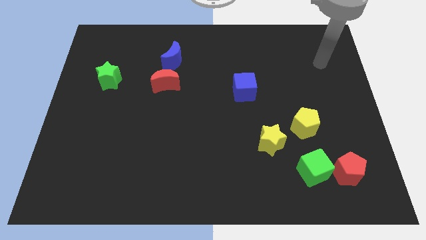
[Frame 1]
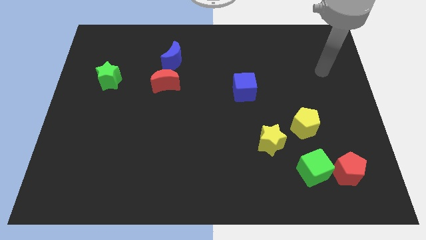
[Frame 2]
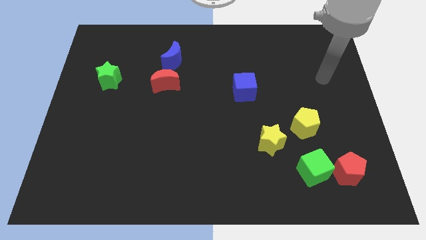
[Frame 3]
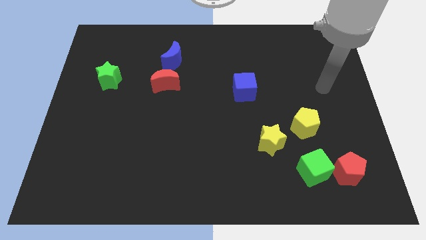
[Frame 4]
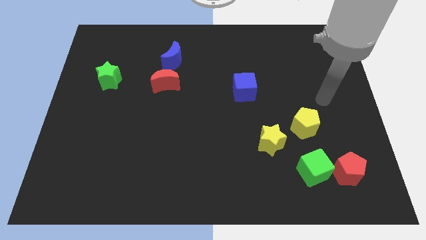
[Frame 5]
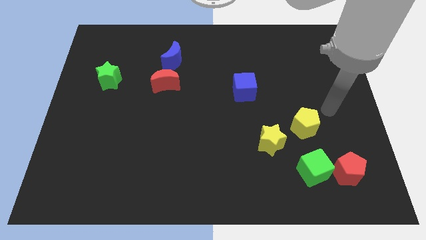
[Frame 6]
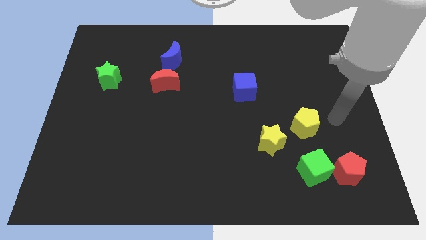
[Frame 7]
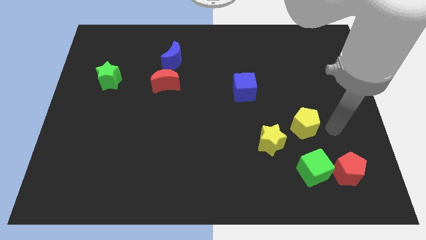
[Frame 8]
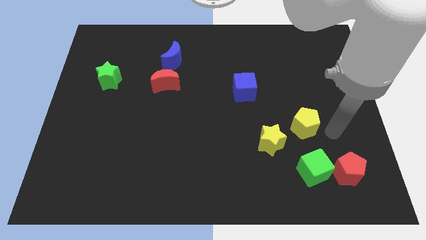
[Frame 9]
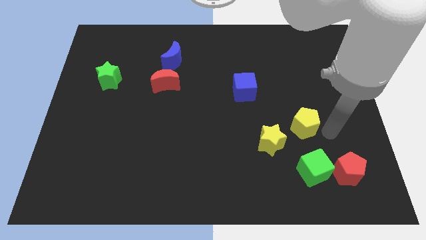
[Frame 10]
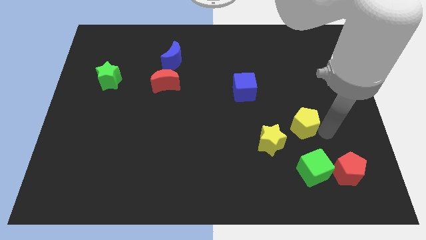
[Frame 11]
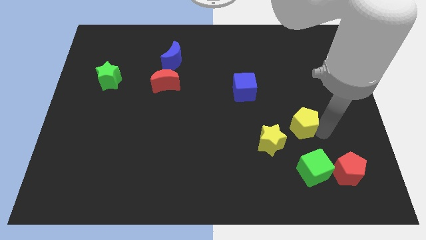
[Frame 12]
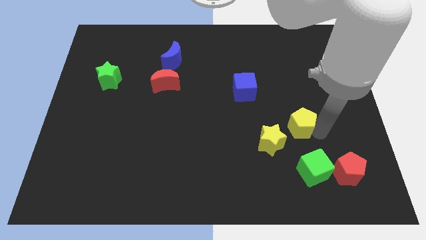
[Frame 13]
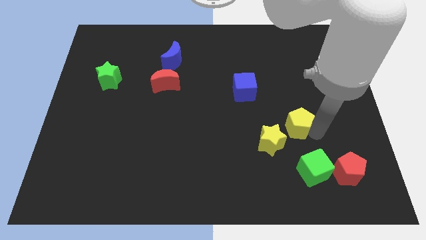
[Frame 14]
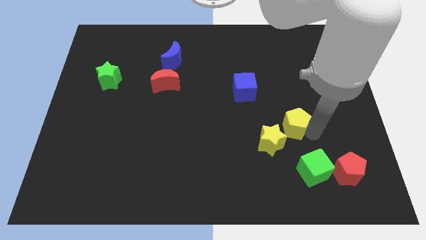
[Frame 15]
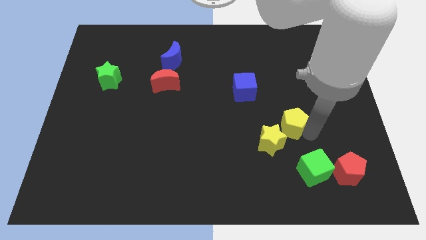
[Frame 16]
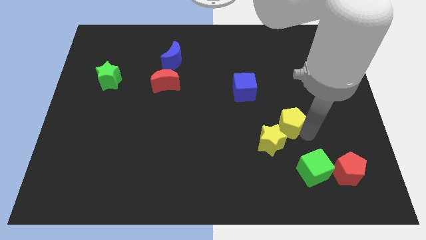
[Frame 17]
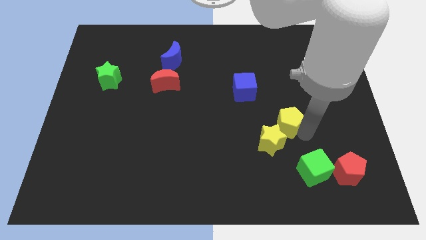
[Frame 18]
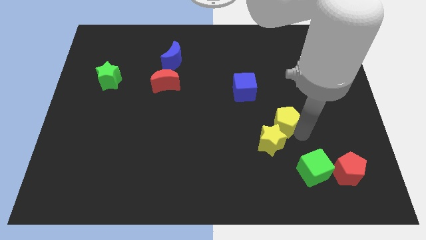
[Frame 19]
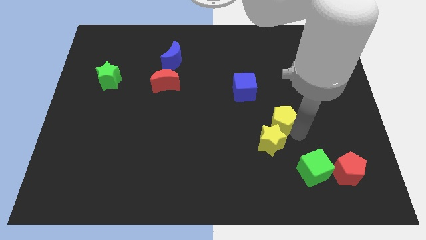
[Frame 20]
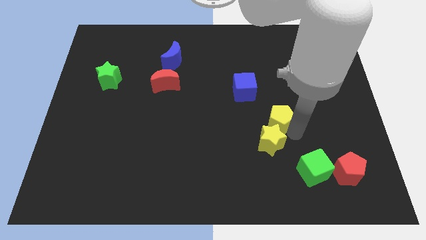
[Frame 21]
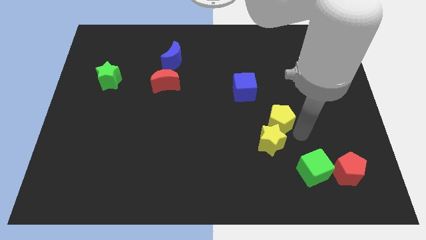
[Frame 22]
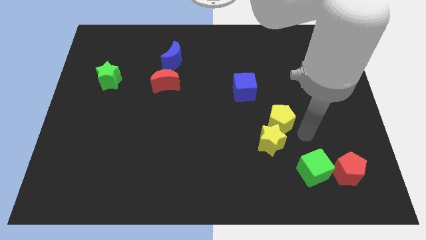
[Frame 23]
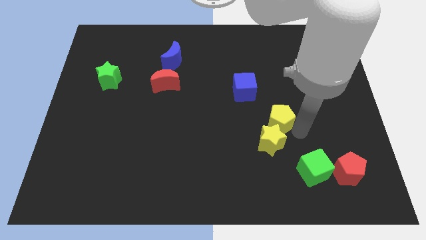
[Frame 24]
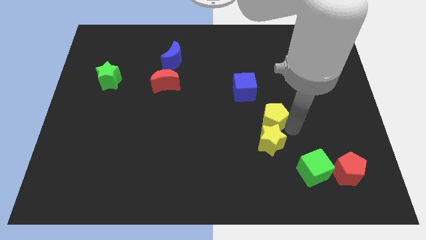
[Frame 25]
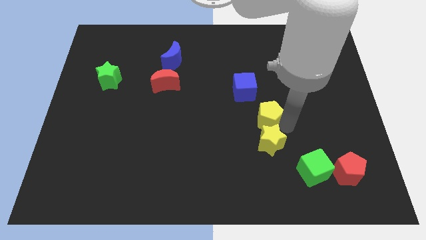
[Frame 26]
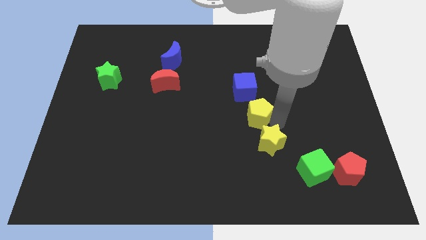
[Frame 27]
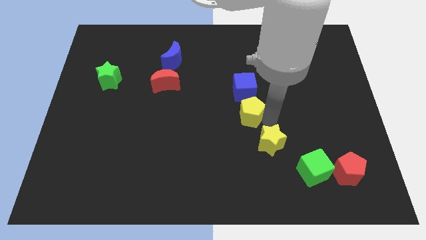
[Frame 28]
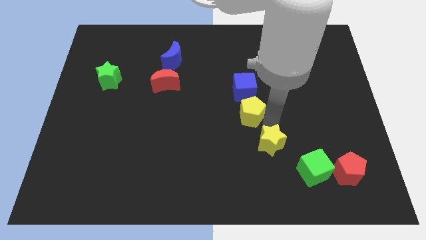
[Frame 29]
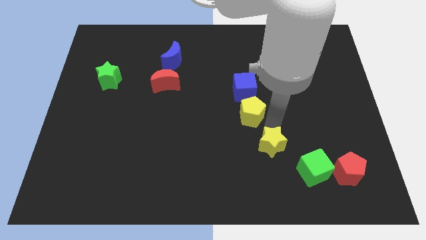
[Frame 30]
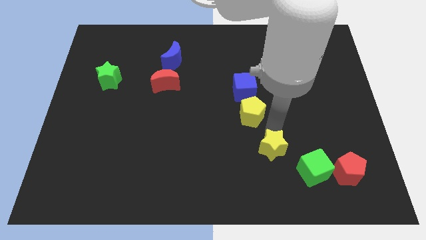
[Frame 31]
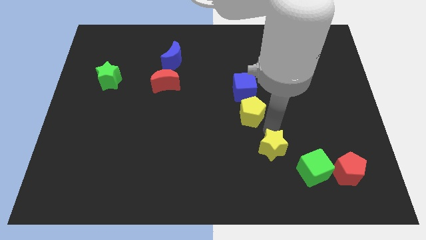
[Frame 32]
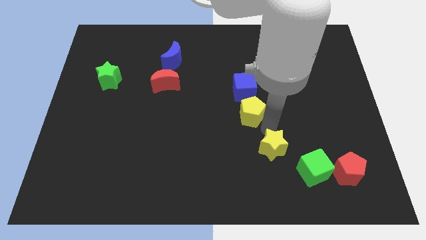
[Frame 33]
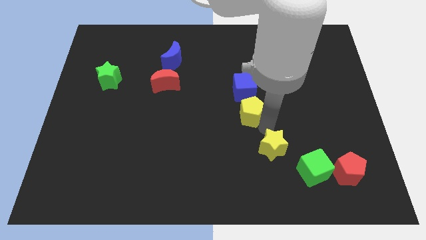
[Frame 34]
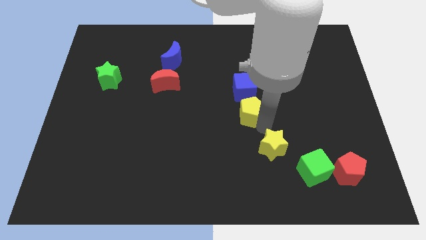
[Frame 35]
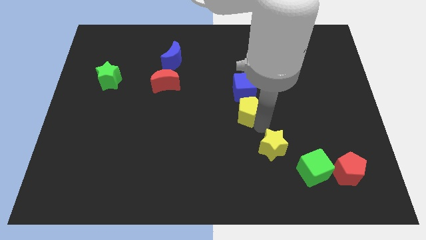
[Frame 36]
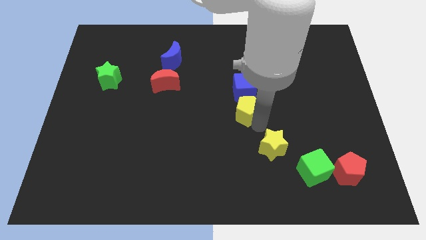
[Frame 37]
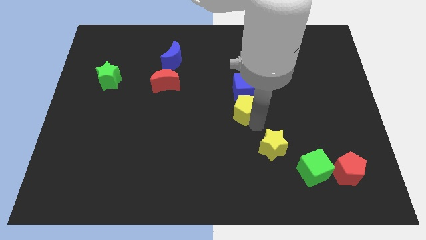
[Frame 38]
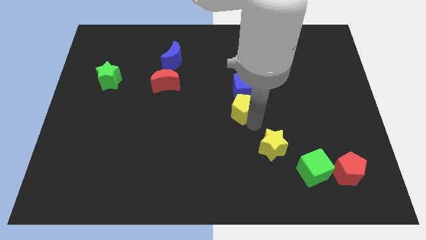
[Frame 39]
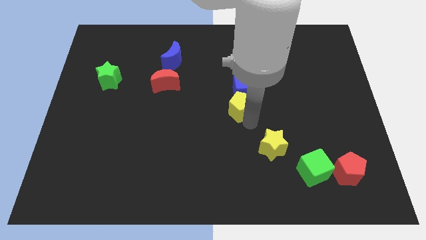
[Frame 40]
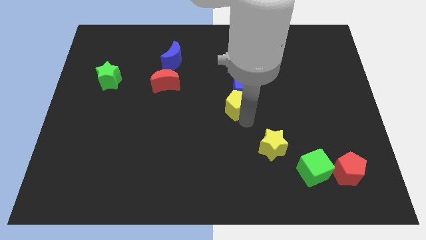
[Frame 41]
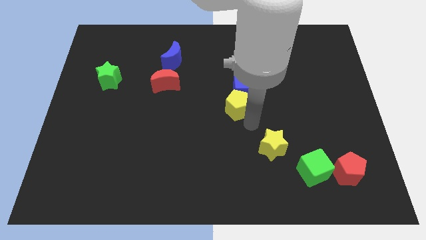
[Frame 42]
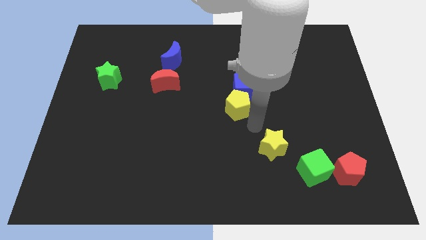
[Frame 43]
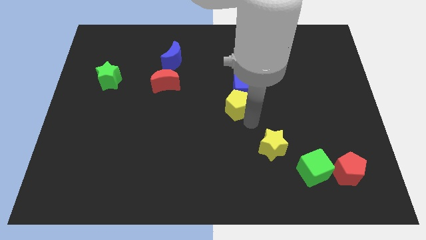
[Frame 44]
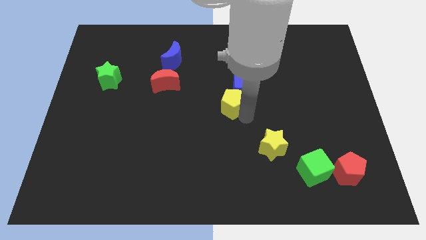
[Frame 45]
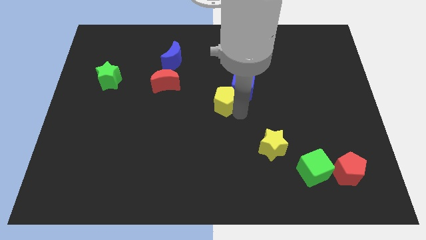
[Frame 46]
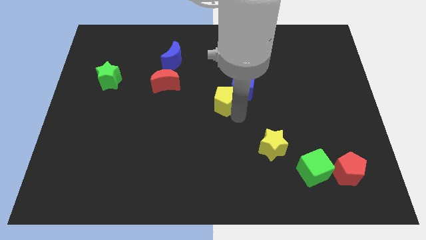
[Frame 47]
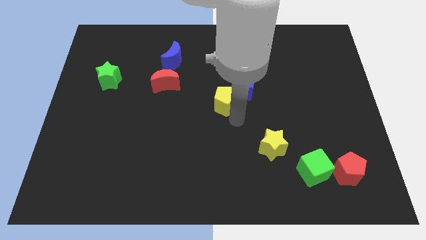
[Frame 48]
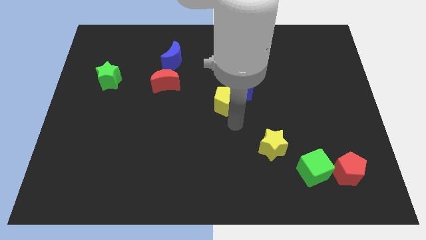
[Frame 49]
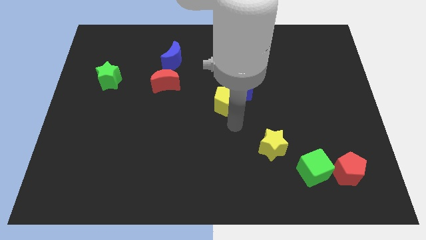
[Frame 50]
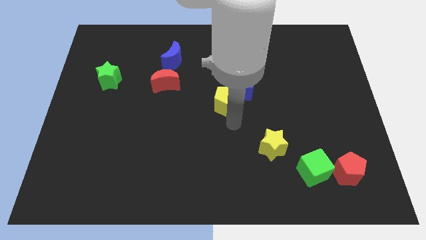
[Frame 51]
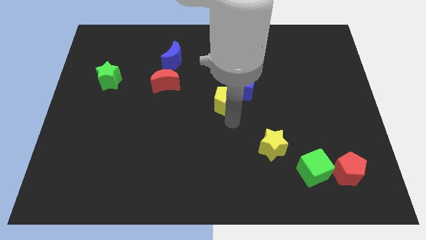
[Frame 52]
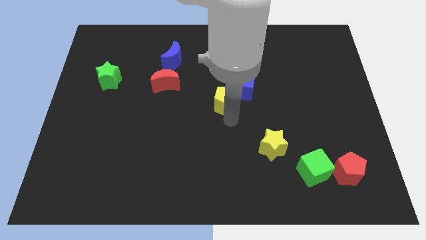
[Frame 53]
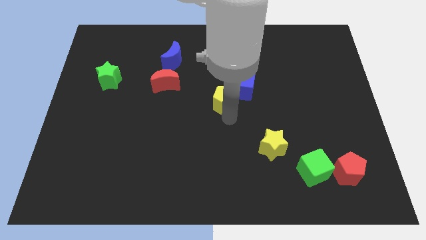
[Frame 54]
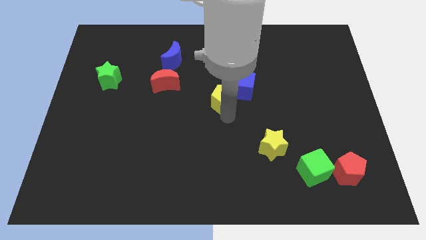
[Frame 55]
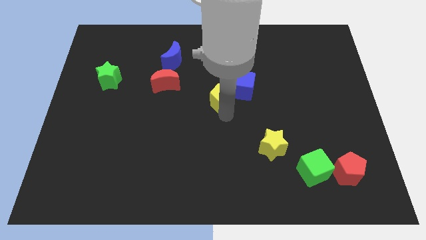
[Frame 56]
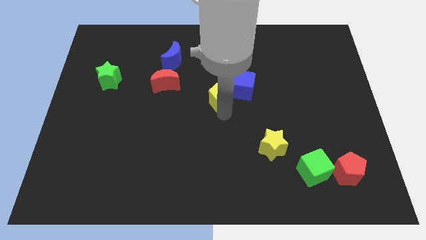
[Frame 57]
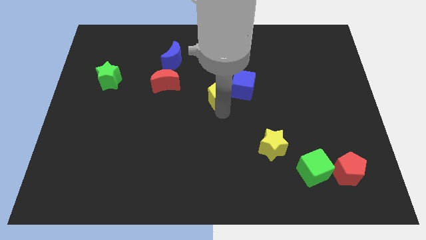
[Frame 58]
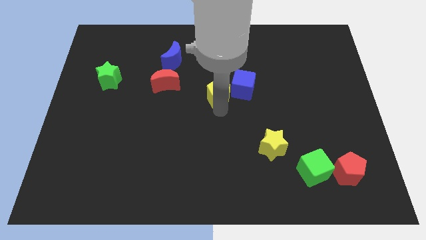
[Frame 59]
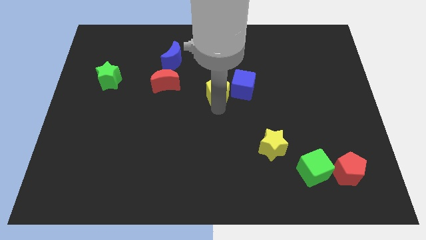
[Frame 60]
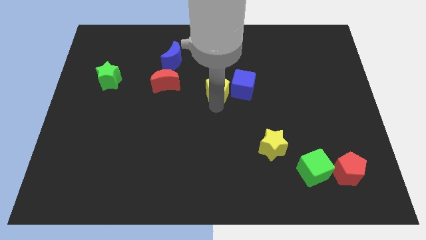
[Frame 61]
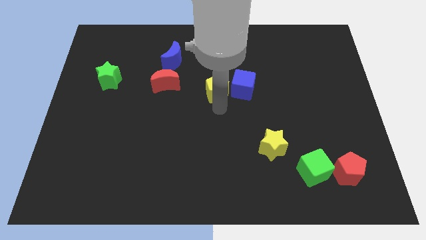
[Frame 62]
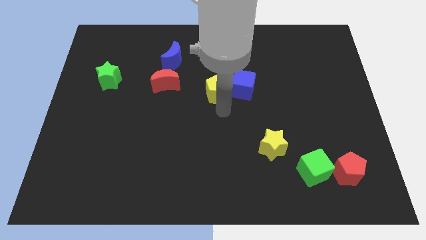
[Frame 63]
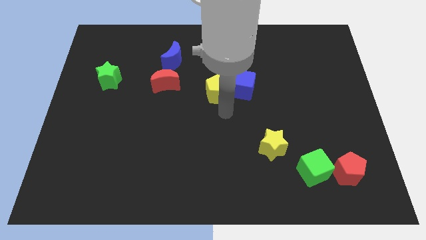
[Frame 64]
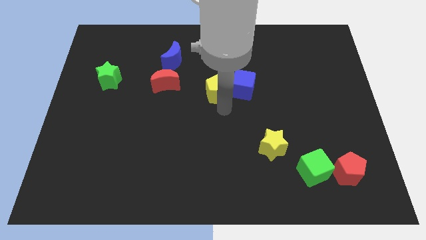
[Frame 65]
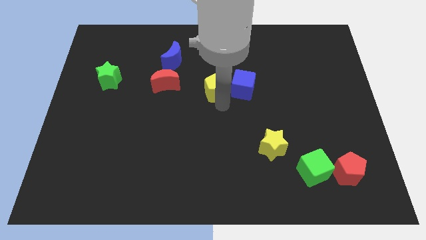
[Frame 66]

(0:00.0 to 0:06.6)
slide the yellow pentagon up and then to the left

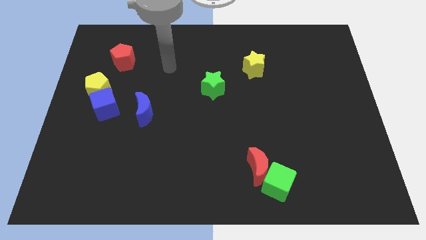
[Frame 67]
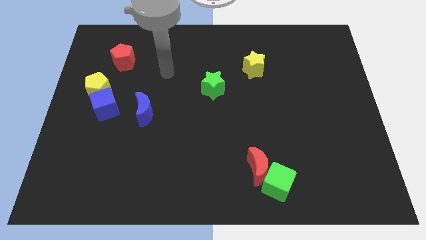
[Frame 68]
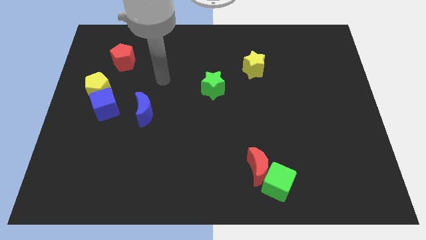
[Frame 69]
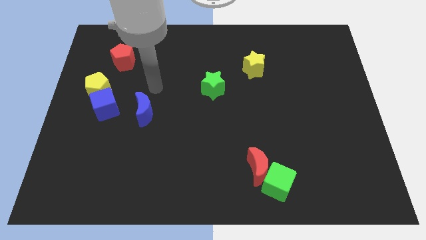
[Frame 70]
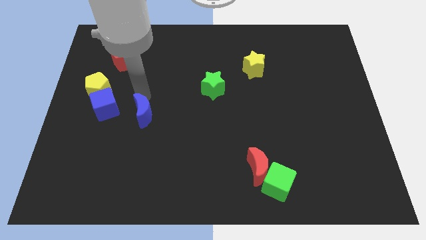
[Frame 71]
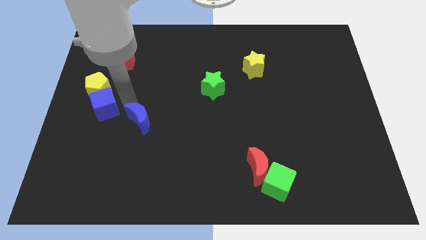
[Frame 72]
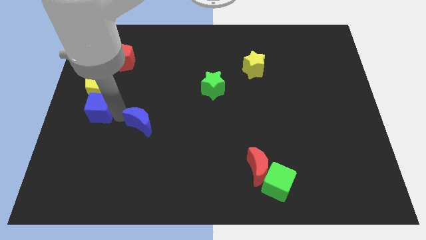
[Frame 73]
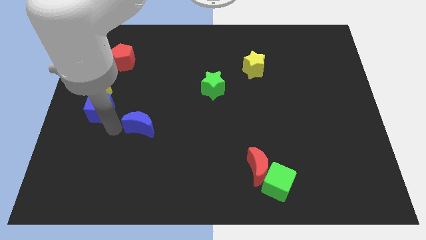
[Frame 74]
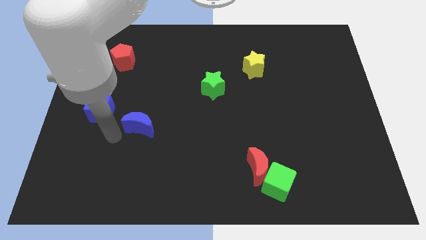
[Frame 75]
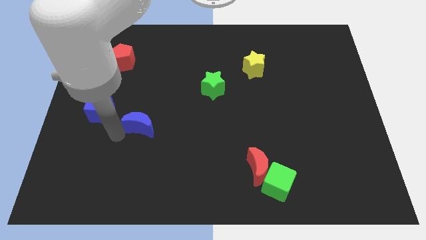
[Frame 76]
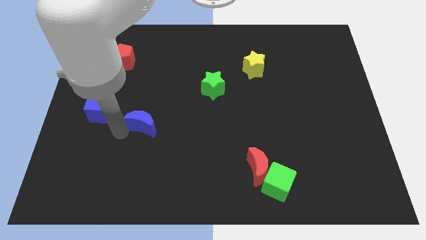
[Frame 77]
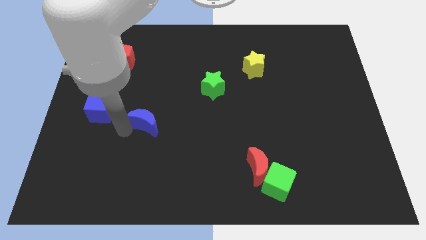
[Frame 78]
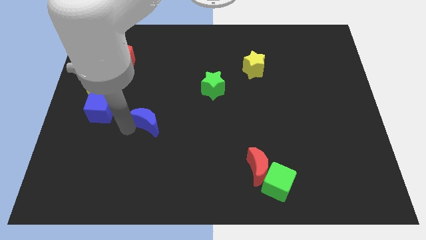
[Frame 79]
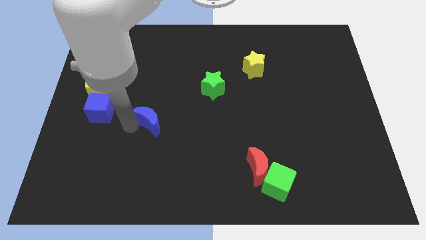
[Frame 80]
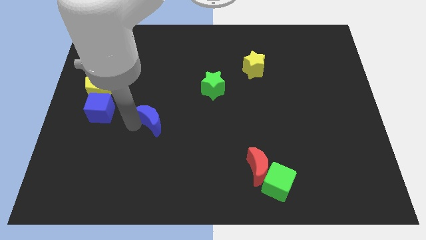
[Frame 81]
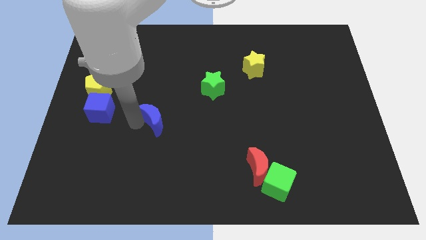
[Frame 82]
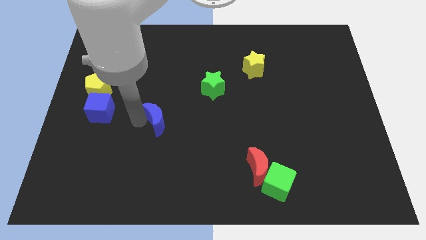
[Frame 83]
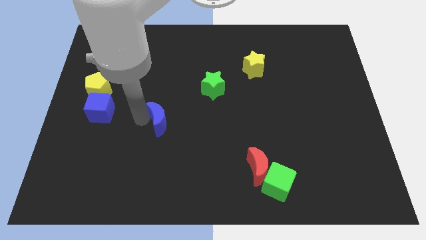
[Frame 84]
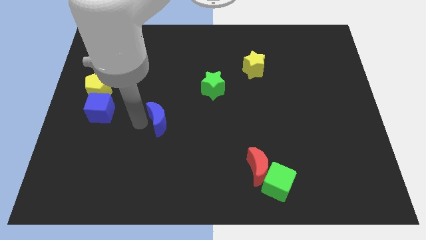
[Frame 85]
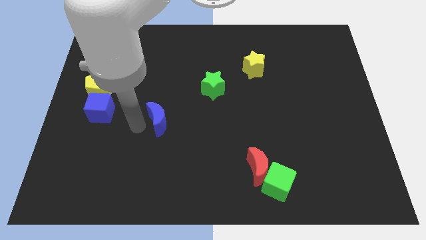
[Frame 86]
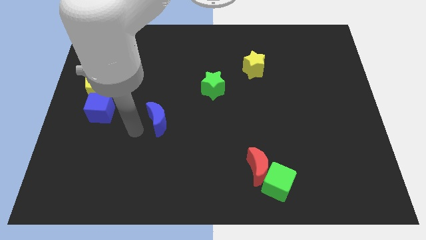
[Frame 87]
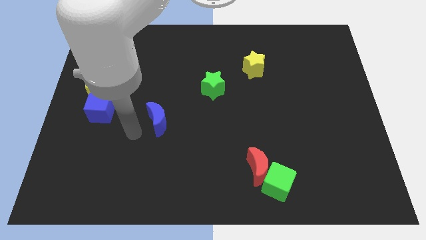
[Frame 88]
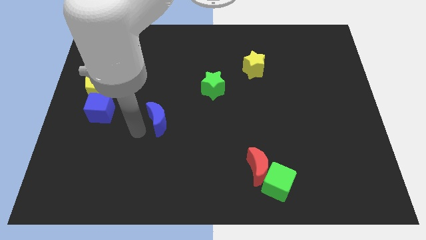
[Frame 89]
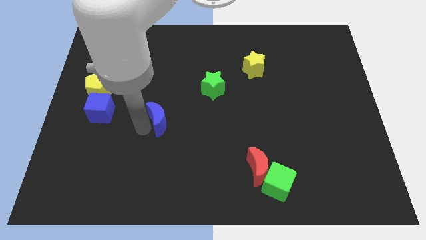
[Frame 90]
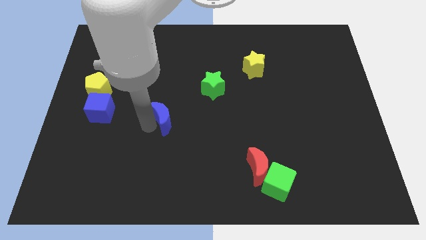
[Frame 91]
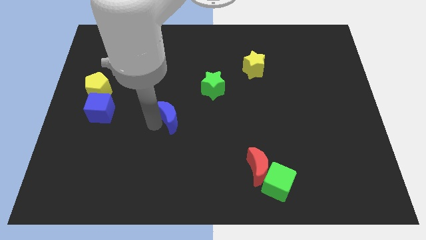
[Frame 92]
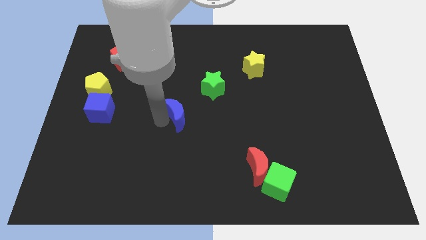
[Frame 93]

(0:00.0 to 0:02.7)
slightly push the blue moon right
